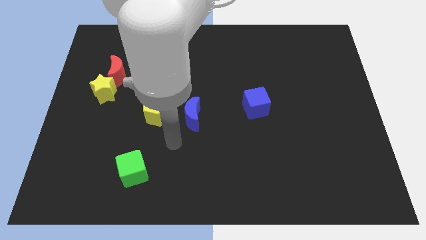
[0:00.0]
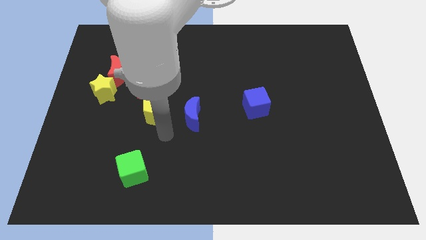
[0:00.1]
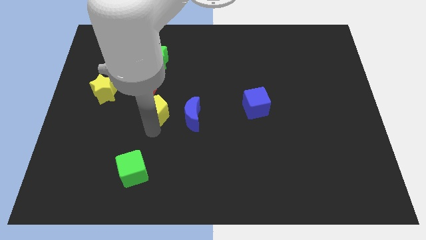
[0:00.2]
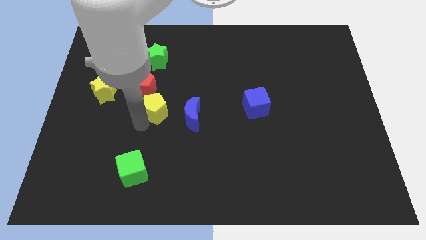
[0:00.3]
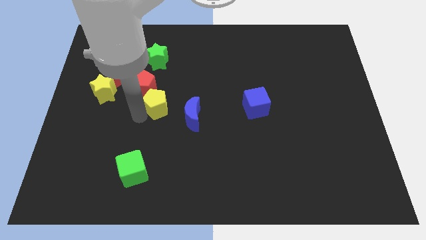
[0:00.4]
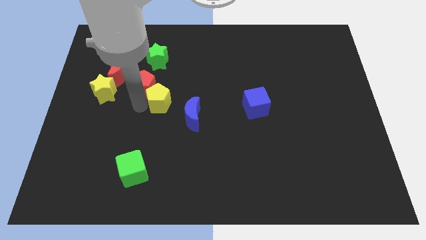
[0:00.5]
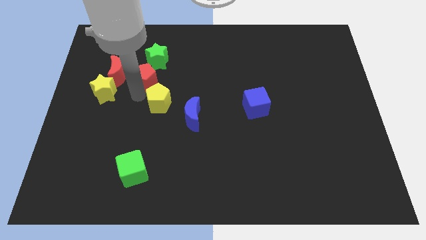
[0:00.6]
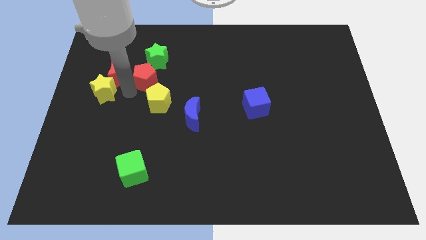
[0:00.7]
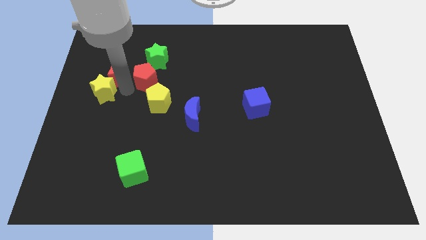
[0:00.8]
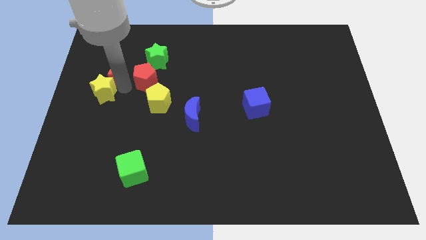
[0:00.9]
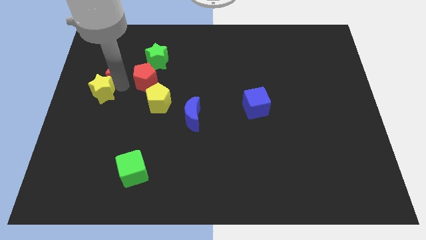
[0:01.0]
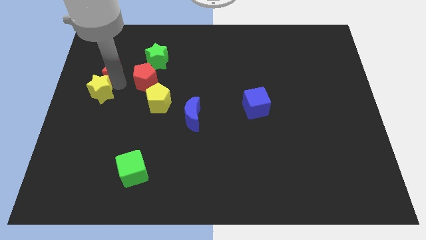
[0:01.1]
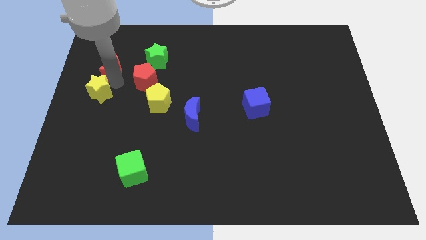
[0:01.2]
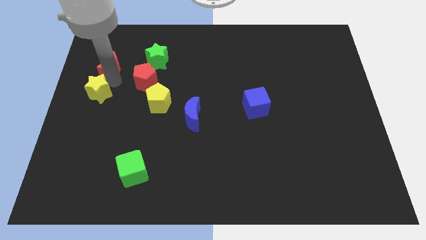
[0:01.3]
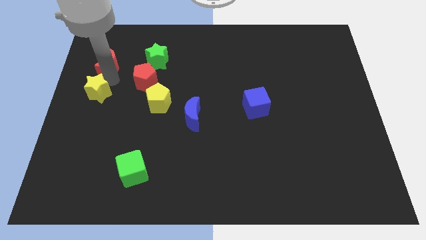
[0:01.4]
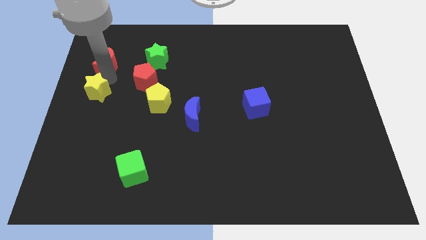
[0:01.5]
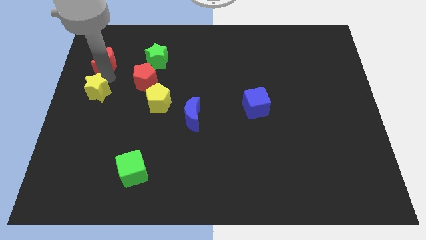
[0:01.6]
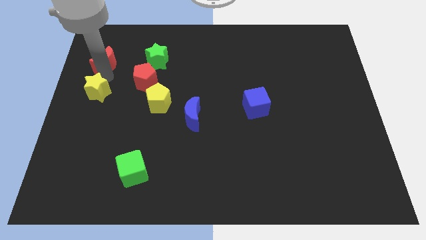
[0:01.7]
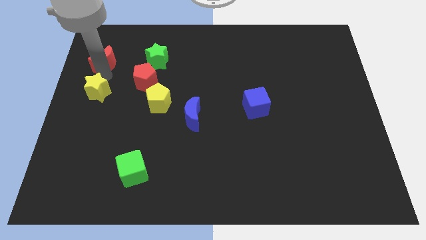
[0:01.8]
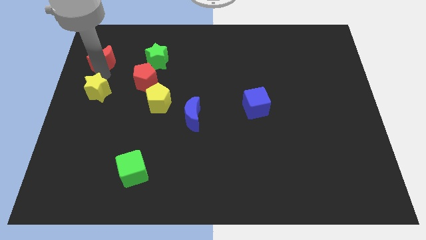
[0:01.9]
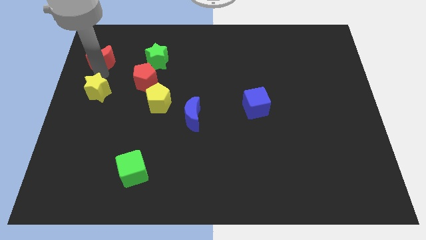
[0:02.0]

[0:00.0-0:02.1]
separate the red moon from the yellow star and red pentagon

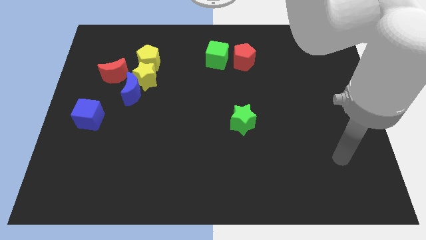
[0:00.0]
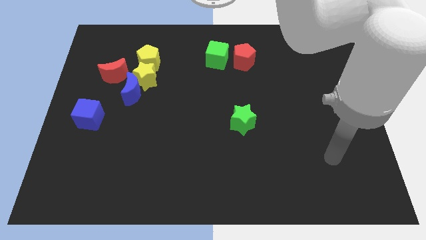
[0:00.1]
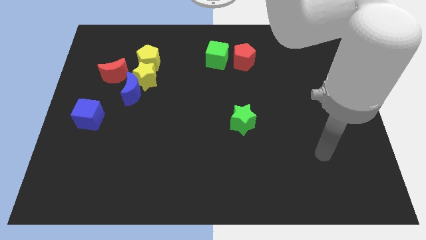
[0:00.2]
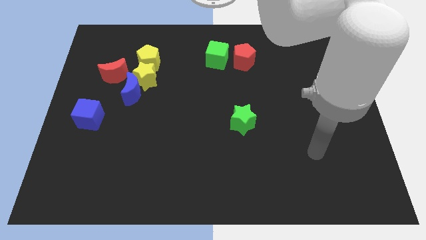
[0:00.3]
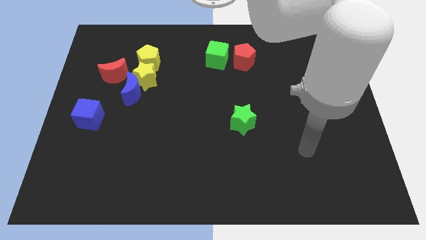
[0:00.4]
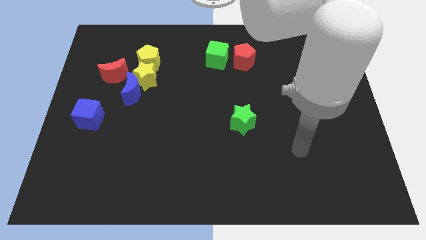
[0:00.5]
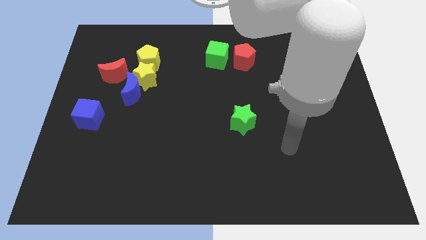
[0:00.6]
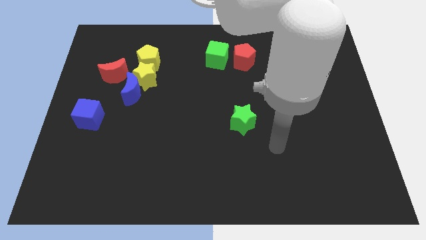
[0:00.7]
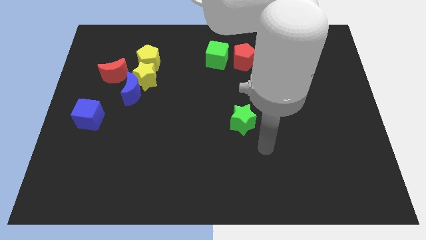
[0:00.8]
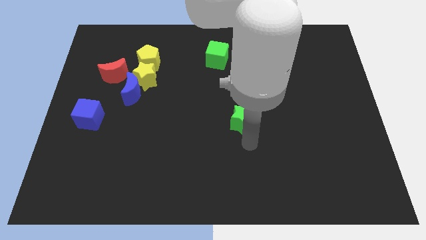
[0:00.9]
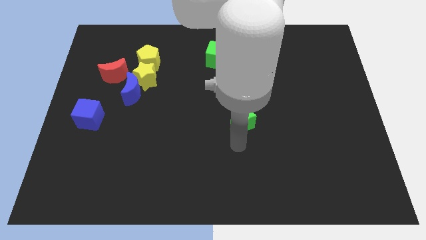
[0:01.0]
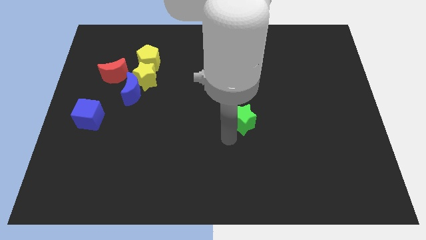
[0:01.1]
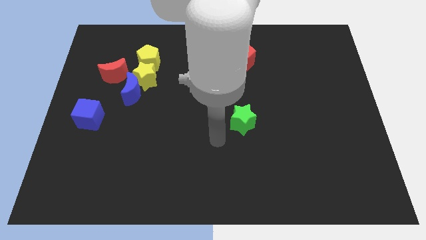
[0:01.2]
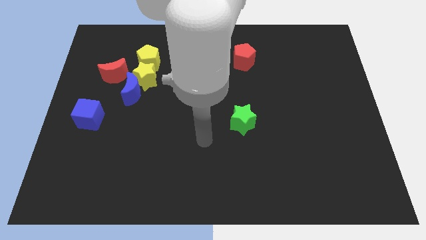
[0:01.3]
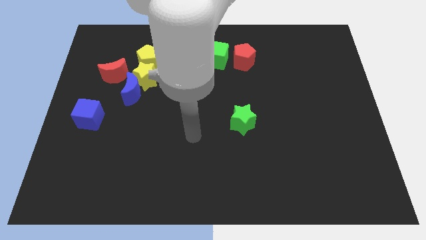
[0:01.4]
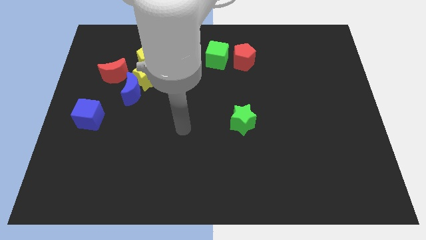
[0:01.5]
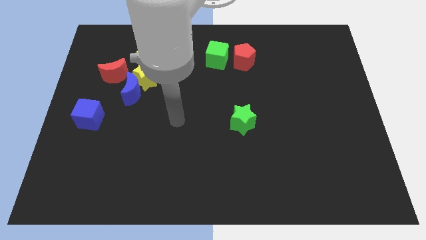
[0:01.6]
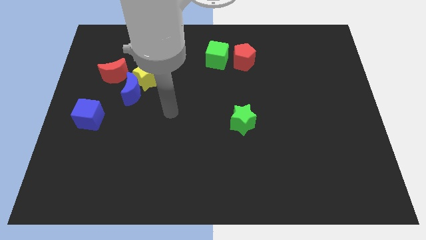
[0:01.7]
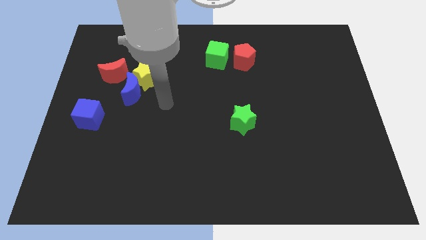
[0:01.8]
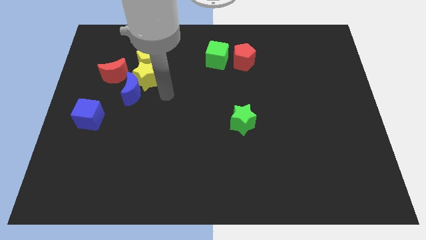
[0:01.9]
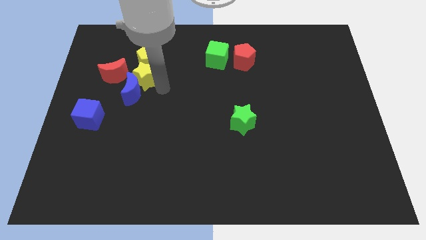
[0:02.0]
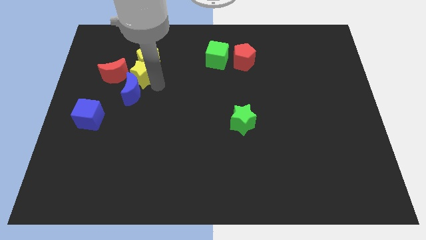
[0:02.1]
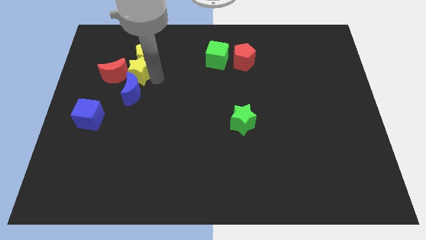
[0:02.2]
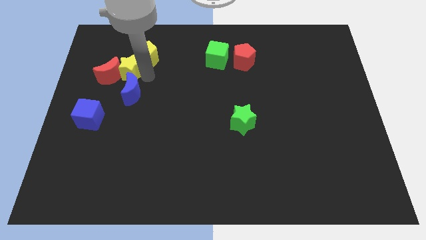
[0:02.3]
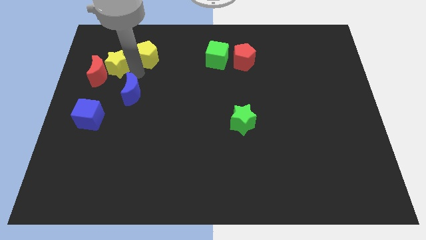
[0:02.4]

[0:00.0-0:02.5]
move the blue moon away from the yellow star and red moon

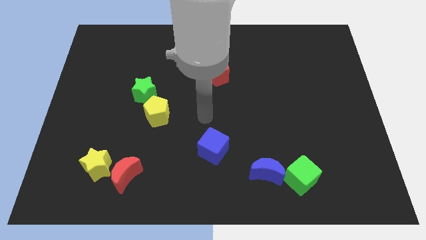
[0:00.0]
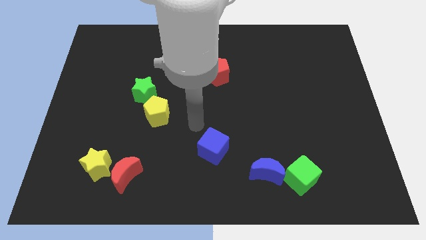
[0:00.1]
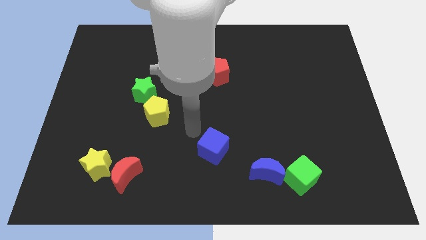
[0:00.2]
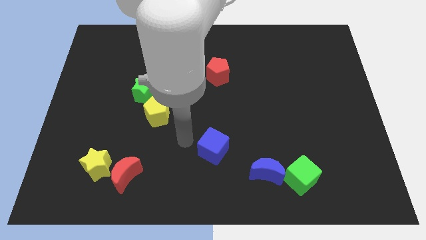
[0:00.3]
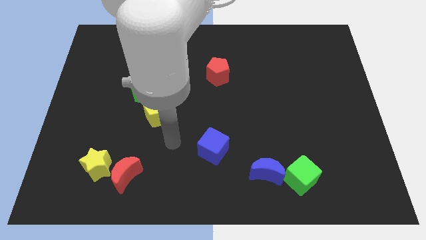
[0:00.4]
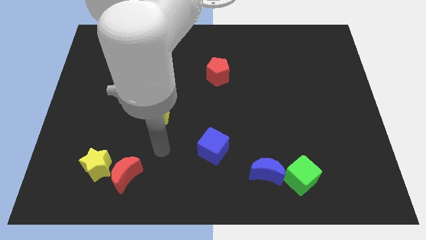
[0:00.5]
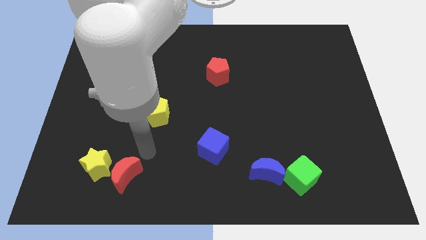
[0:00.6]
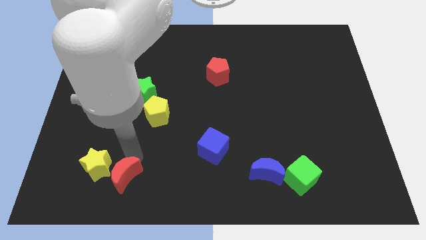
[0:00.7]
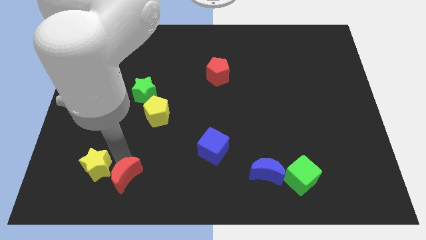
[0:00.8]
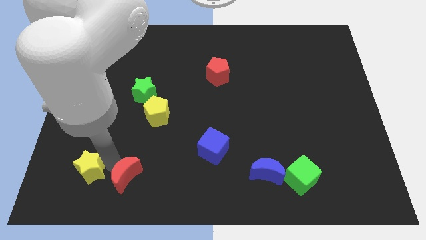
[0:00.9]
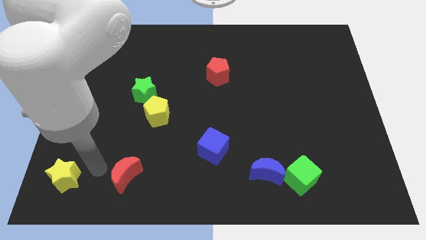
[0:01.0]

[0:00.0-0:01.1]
separate the red moon from the yellow star

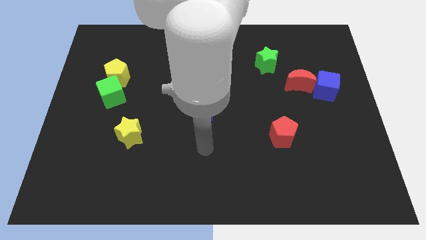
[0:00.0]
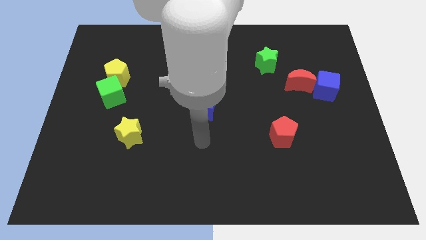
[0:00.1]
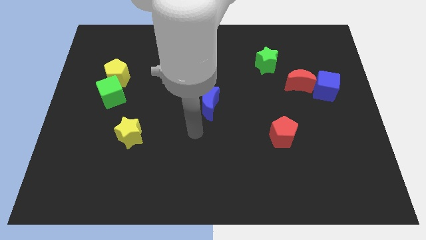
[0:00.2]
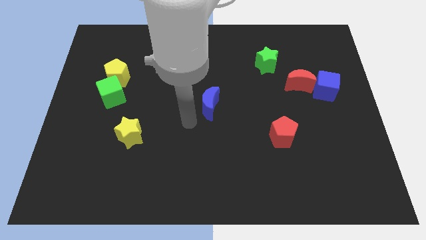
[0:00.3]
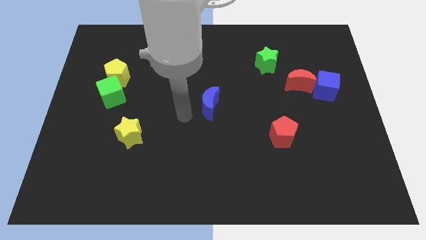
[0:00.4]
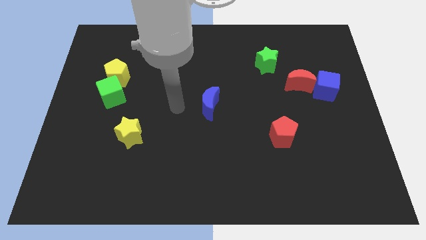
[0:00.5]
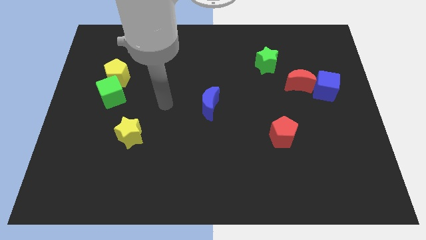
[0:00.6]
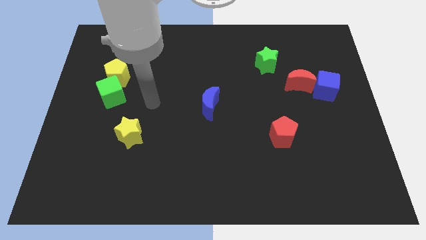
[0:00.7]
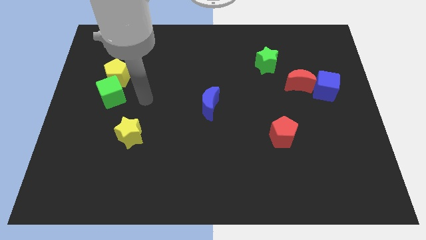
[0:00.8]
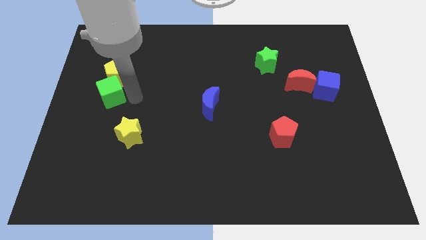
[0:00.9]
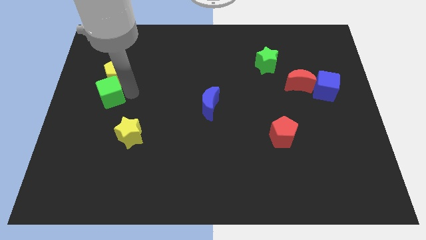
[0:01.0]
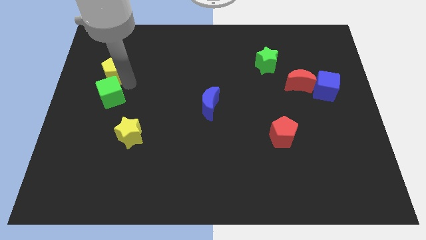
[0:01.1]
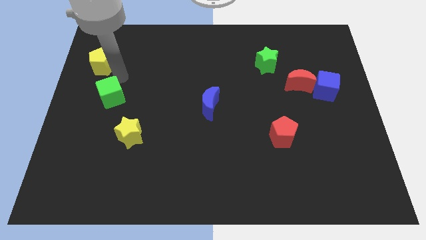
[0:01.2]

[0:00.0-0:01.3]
separate the green cube from the yellow pentagon

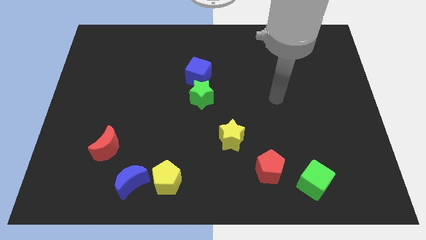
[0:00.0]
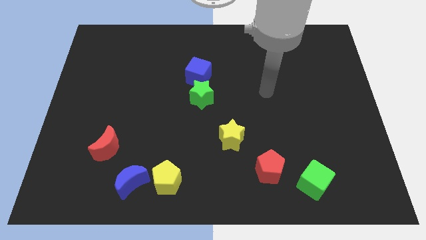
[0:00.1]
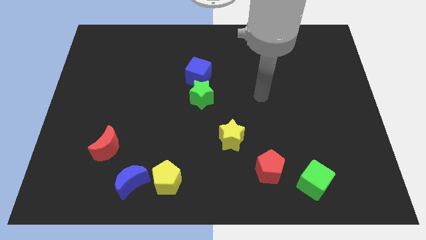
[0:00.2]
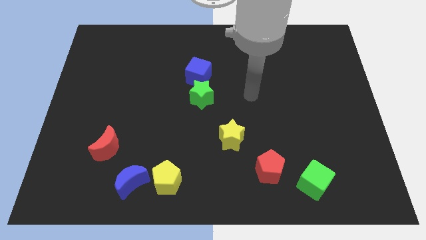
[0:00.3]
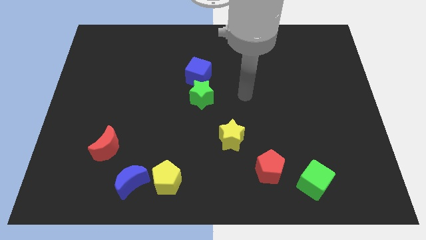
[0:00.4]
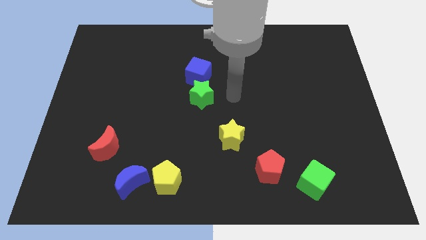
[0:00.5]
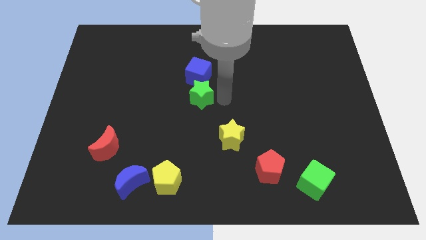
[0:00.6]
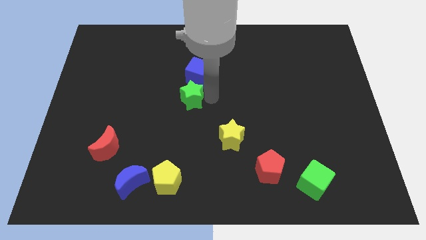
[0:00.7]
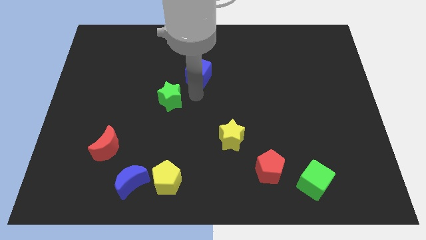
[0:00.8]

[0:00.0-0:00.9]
separate the blue cube from the green star

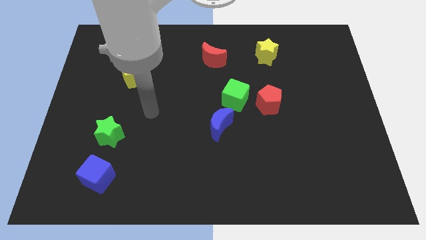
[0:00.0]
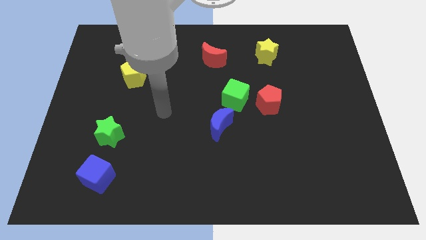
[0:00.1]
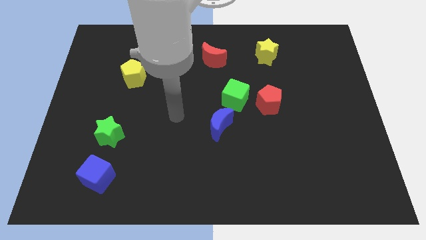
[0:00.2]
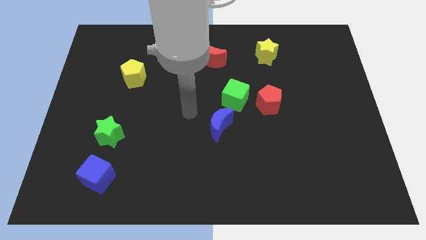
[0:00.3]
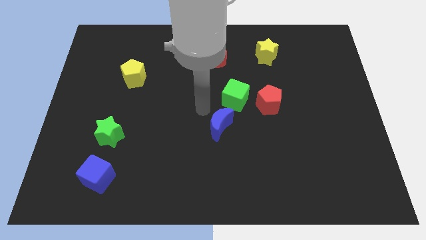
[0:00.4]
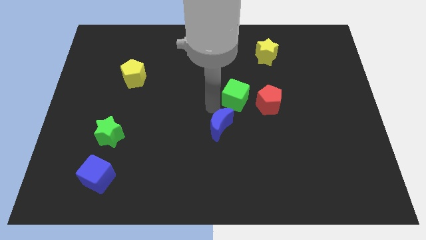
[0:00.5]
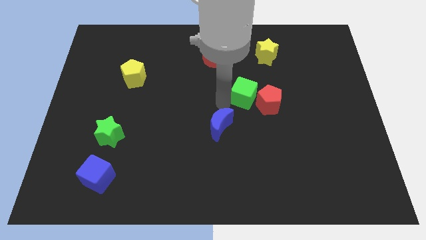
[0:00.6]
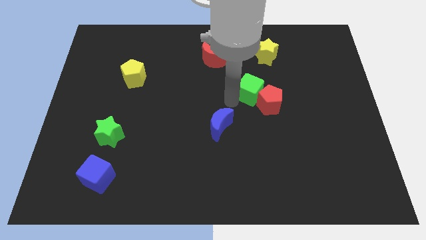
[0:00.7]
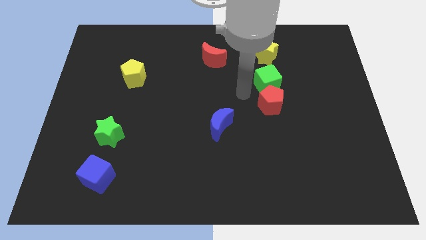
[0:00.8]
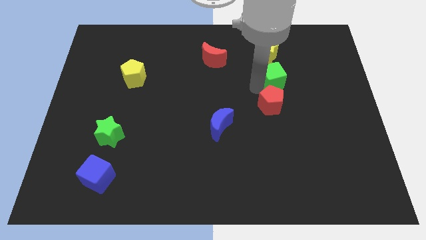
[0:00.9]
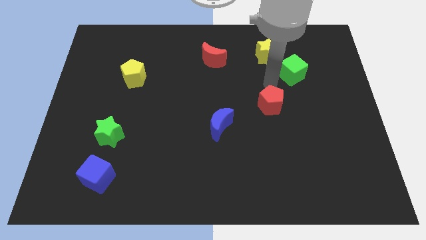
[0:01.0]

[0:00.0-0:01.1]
pull the red pentagon apart from the green cube

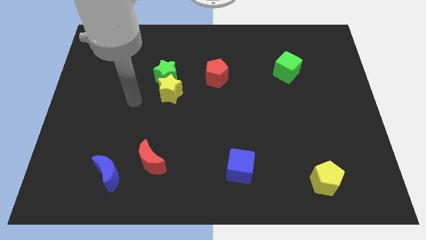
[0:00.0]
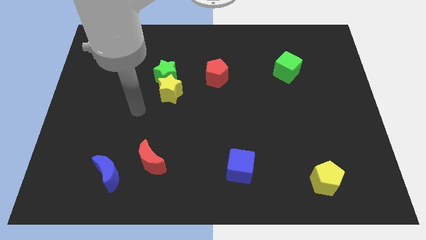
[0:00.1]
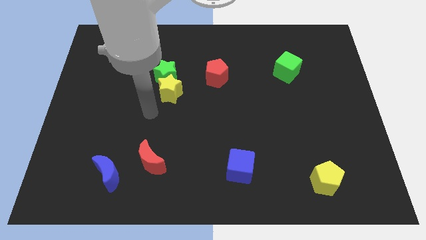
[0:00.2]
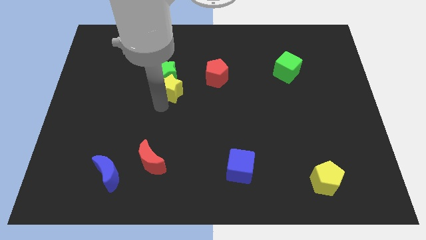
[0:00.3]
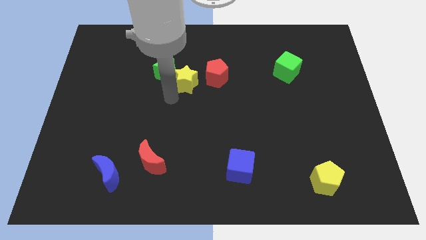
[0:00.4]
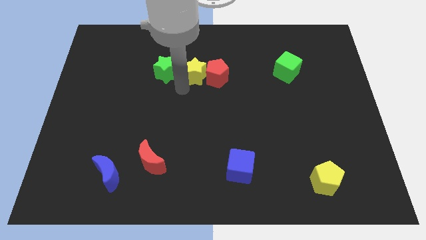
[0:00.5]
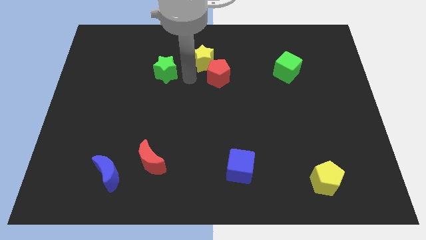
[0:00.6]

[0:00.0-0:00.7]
pull the green star apart from the yellow star
